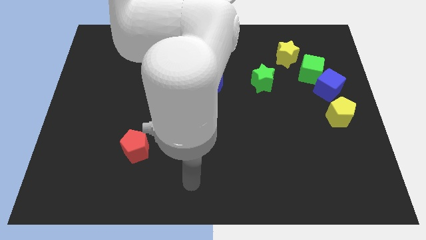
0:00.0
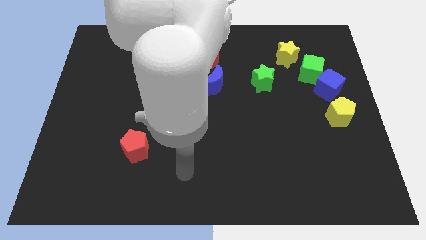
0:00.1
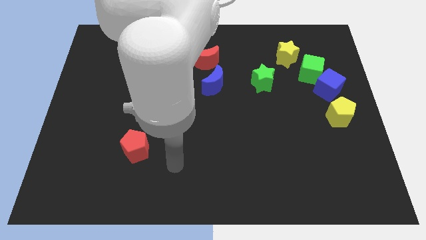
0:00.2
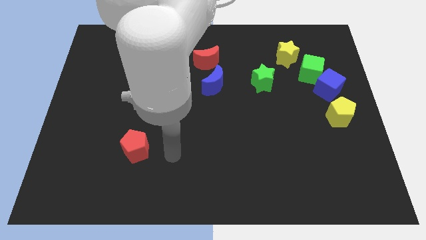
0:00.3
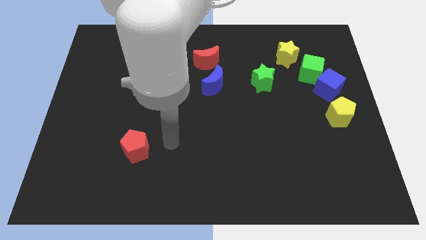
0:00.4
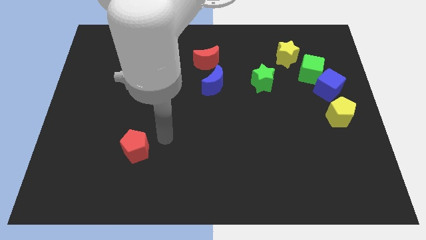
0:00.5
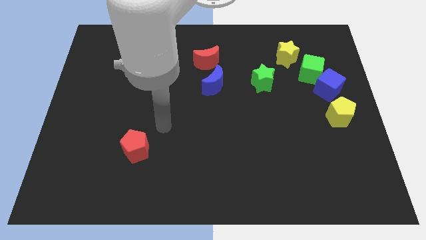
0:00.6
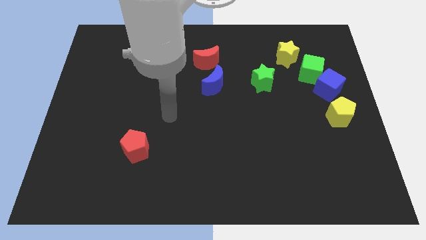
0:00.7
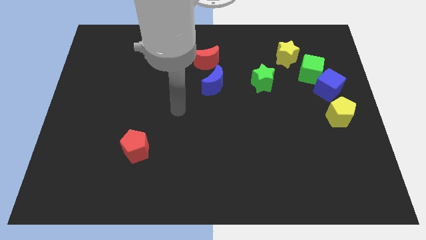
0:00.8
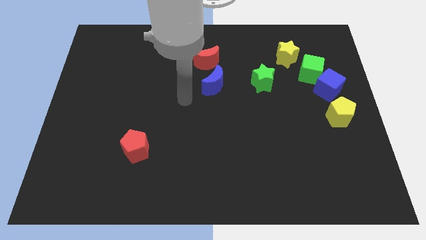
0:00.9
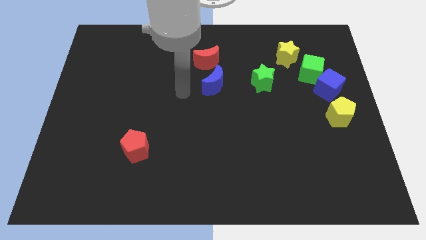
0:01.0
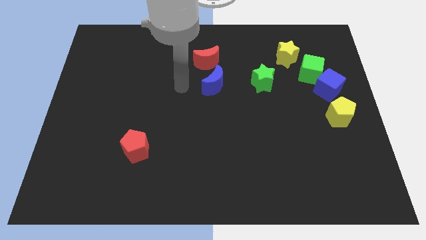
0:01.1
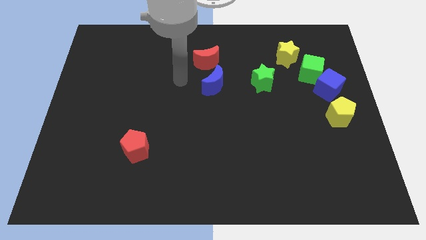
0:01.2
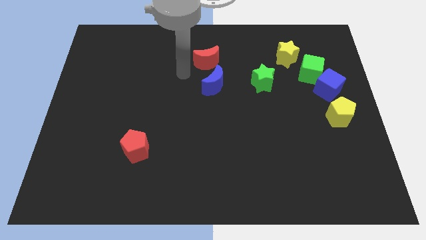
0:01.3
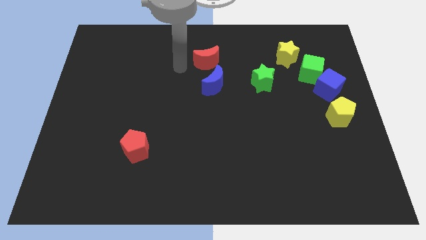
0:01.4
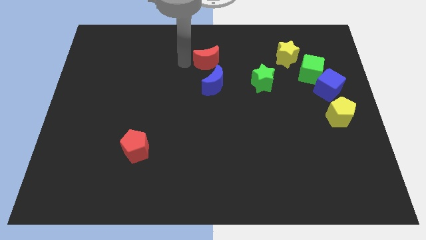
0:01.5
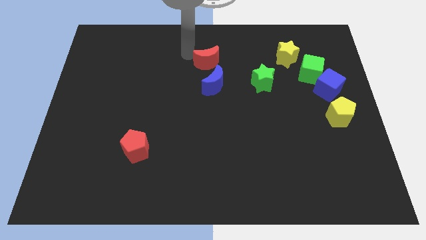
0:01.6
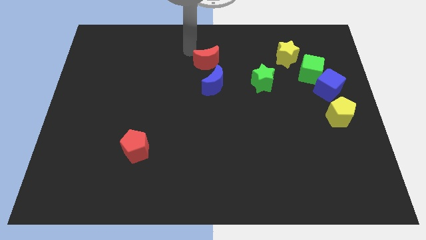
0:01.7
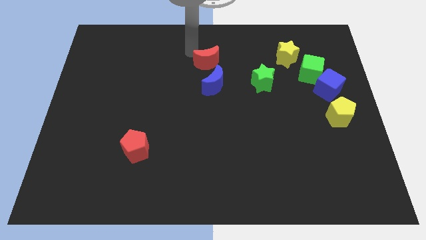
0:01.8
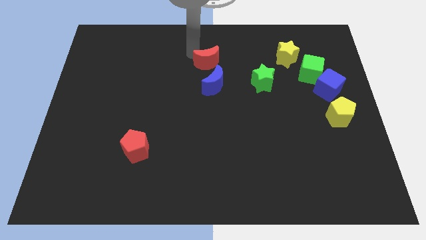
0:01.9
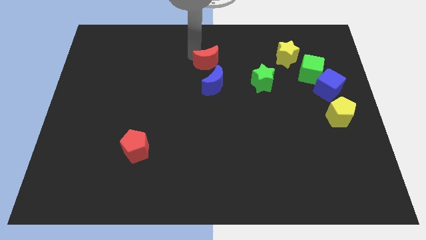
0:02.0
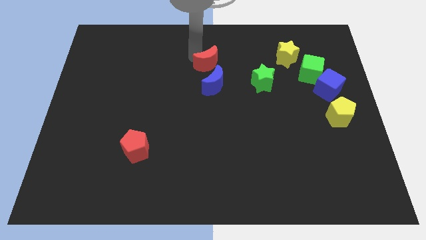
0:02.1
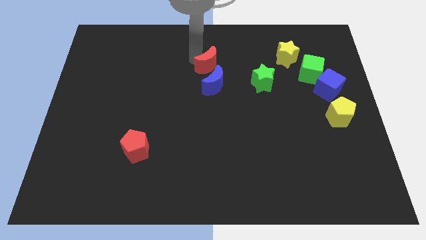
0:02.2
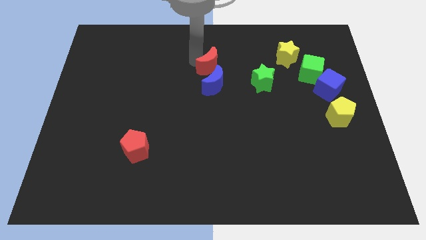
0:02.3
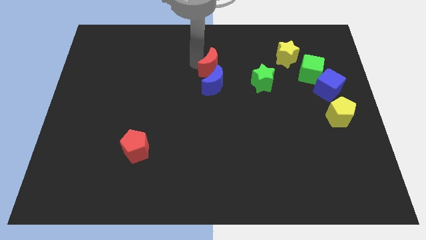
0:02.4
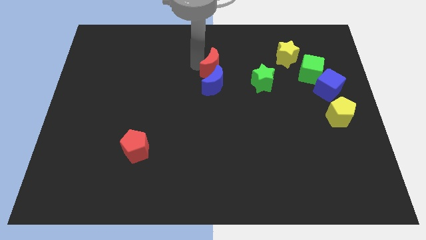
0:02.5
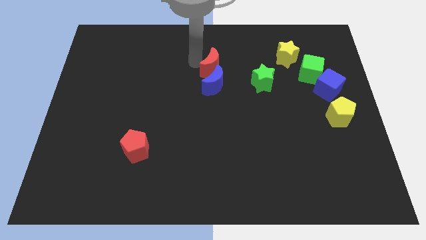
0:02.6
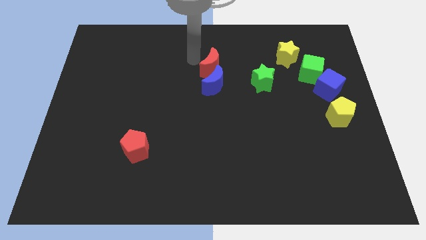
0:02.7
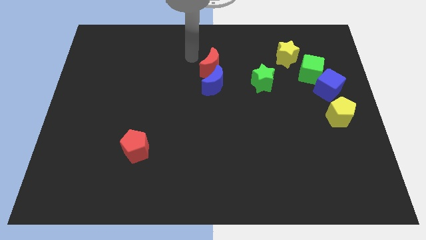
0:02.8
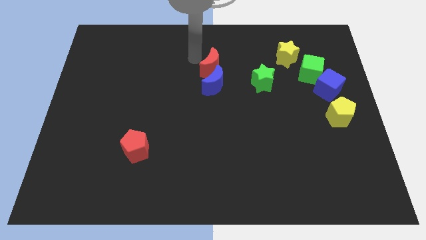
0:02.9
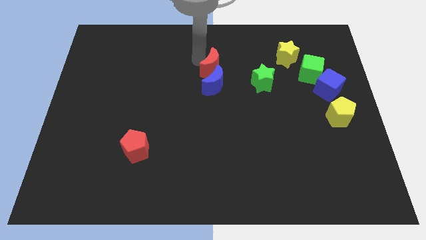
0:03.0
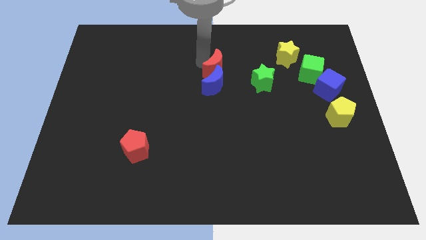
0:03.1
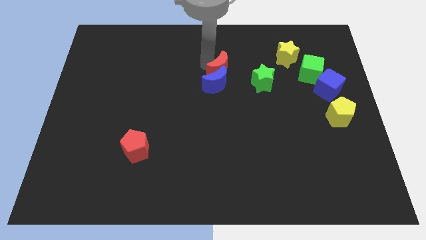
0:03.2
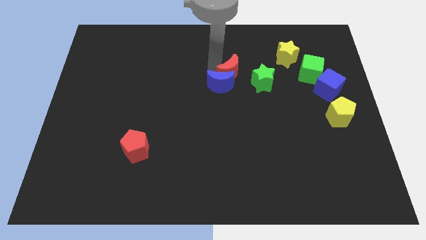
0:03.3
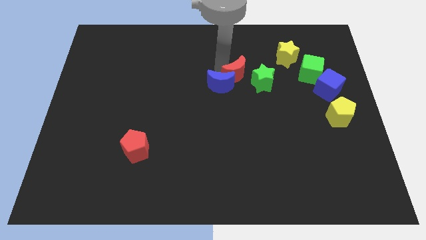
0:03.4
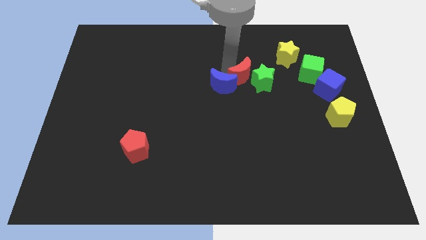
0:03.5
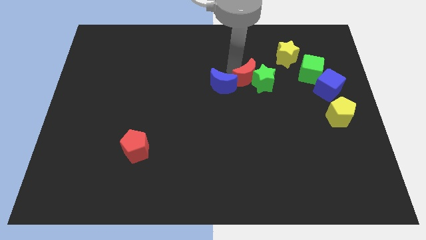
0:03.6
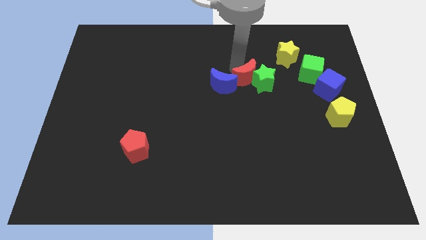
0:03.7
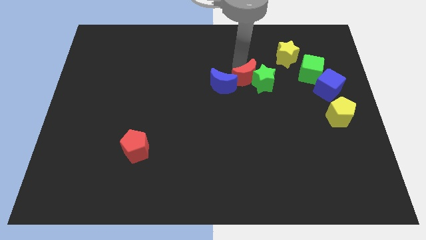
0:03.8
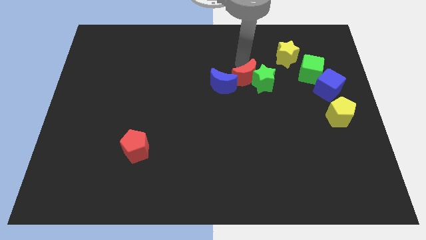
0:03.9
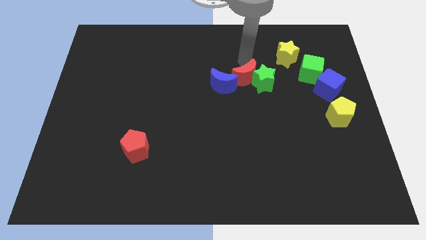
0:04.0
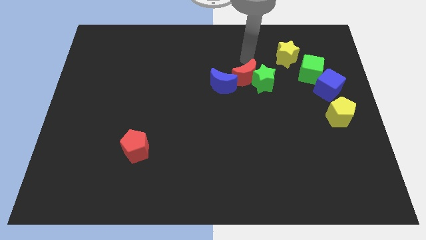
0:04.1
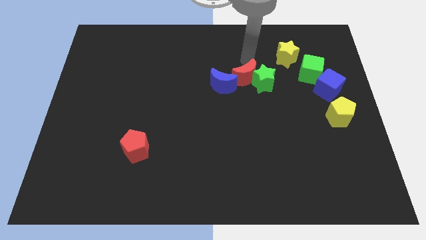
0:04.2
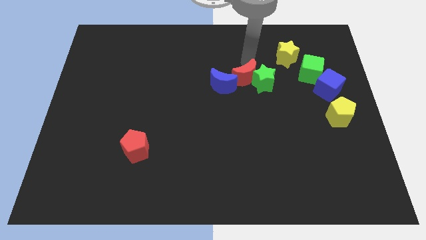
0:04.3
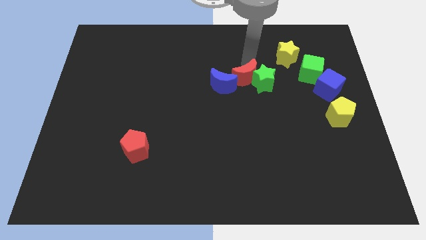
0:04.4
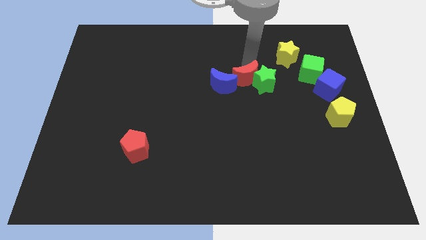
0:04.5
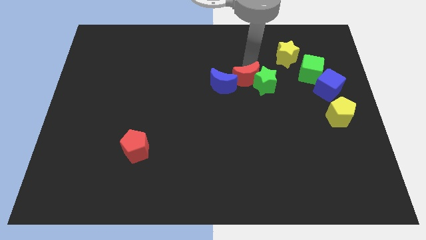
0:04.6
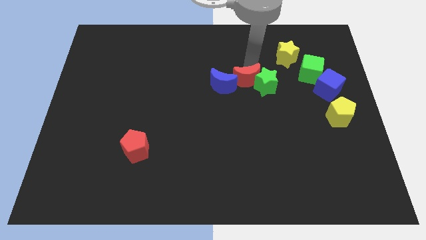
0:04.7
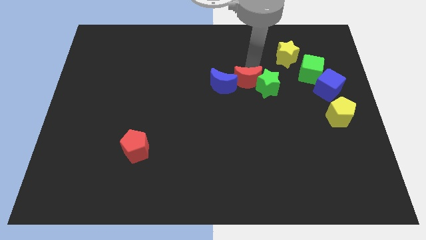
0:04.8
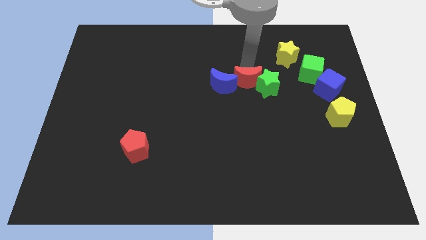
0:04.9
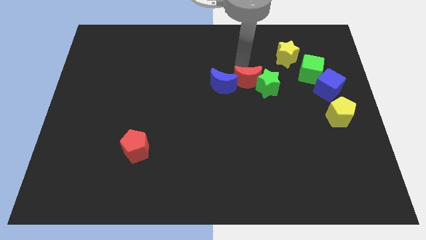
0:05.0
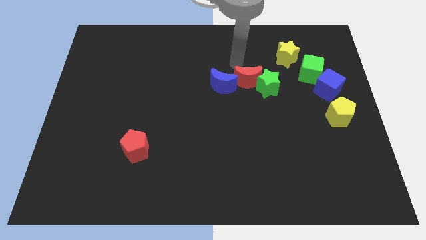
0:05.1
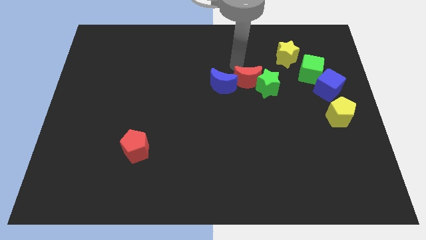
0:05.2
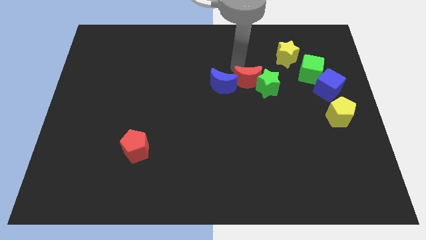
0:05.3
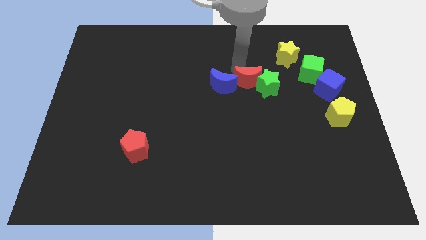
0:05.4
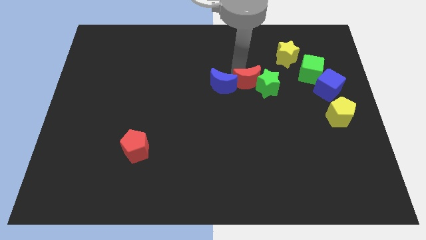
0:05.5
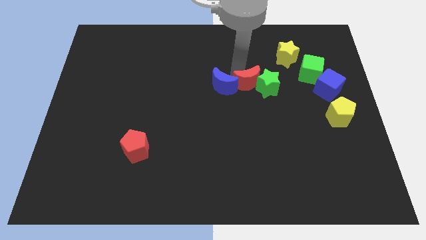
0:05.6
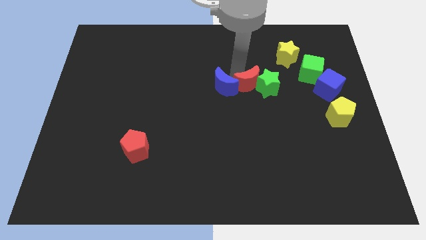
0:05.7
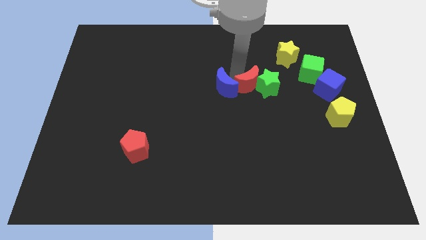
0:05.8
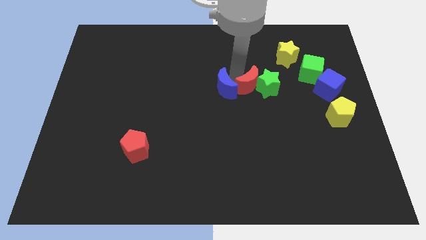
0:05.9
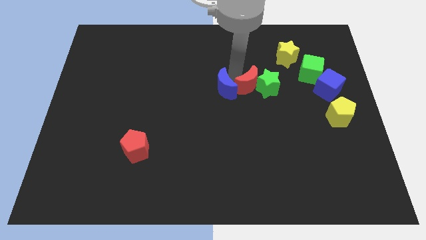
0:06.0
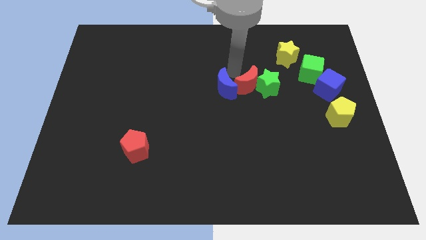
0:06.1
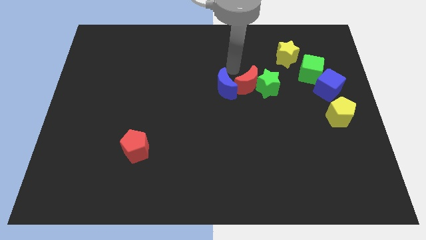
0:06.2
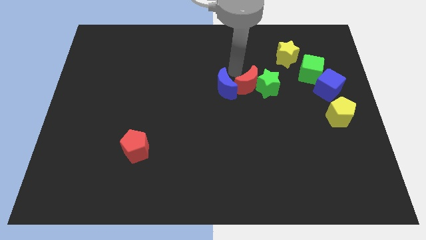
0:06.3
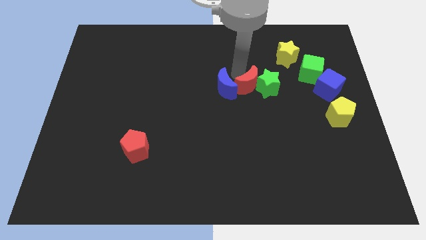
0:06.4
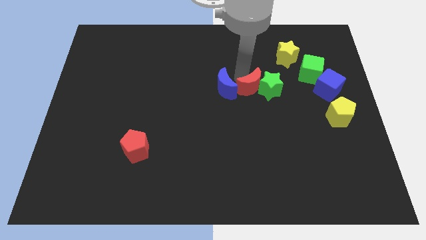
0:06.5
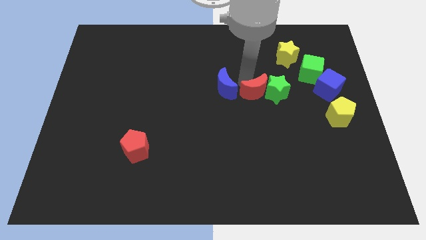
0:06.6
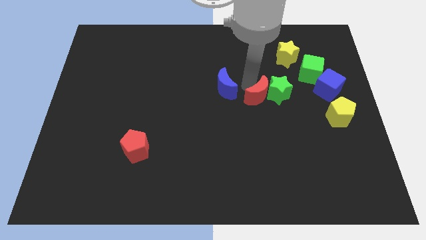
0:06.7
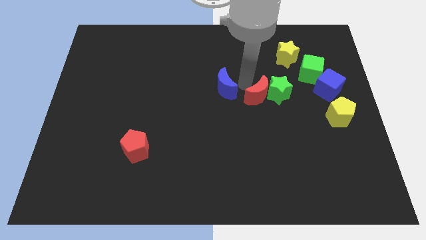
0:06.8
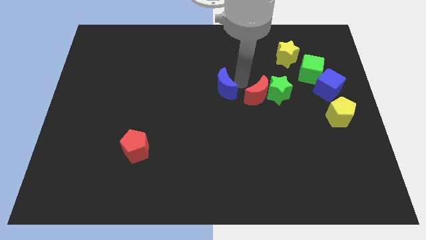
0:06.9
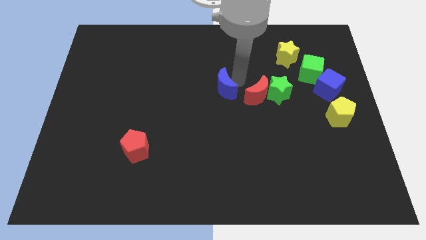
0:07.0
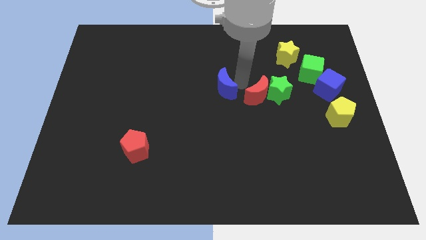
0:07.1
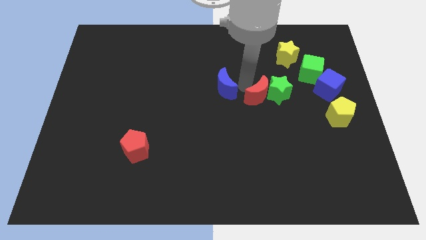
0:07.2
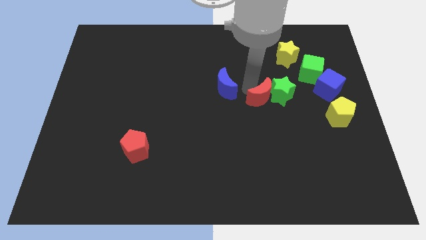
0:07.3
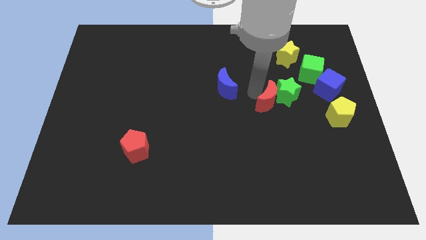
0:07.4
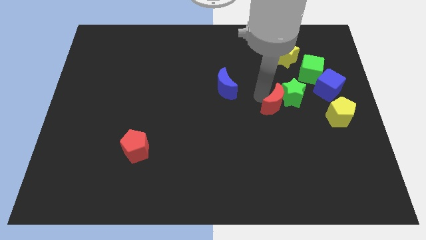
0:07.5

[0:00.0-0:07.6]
slide the red moon down and right diagonally

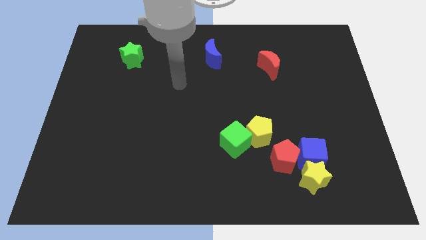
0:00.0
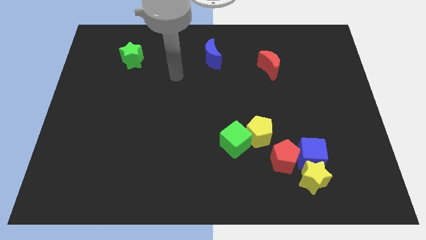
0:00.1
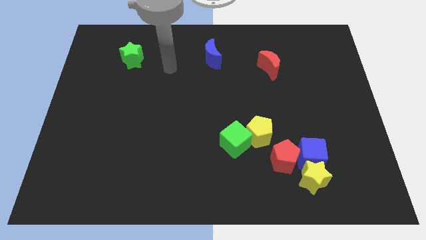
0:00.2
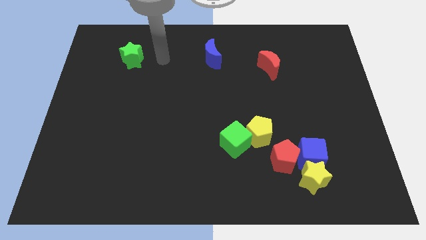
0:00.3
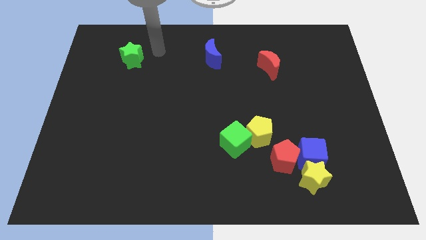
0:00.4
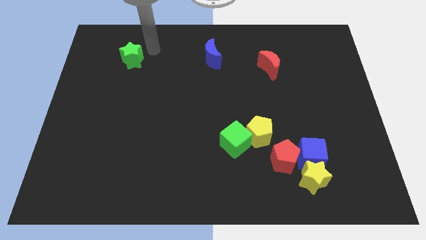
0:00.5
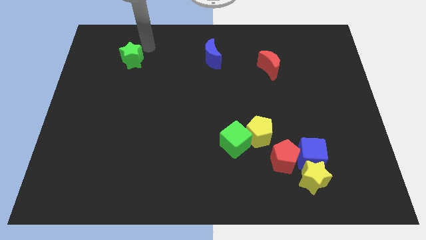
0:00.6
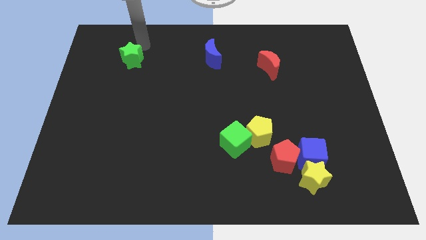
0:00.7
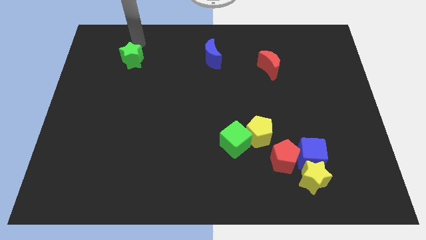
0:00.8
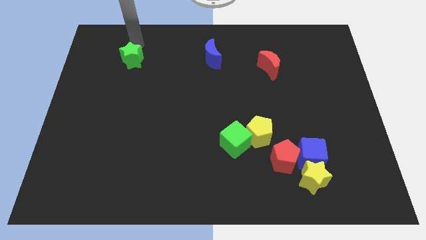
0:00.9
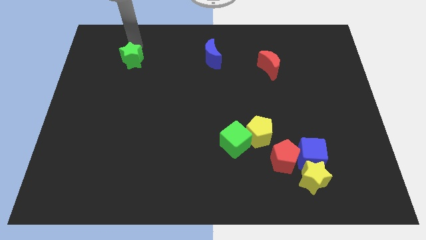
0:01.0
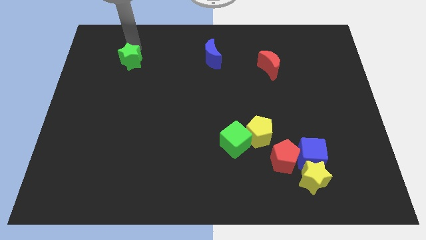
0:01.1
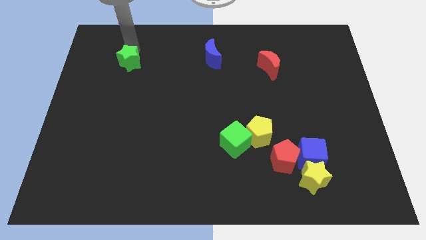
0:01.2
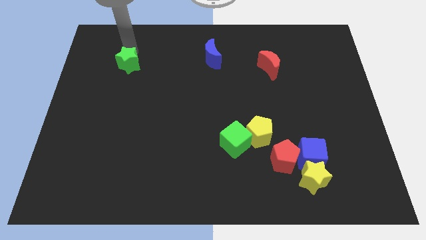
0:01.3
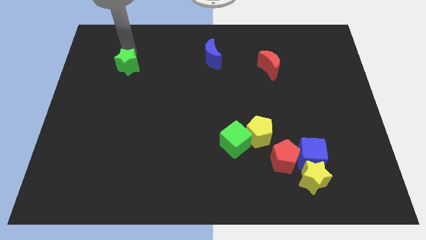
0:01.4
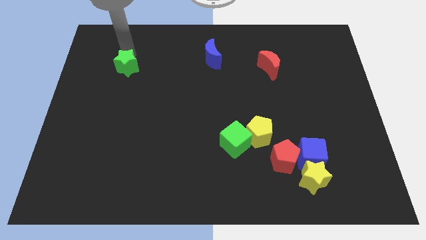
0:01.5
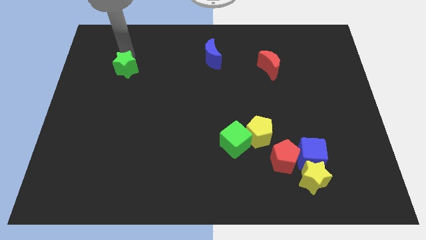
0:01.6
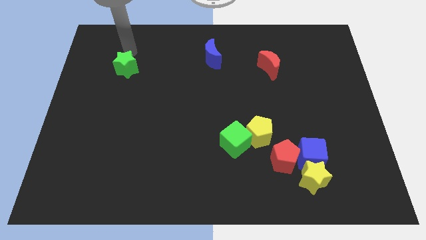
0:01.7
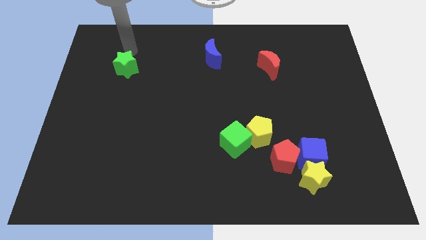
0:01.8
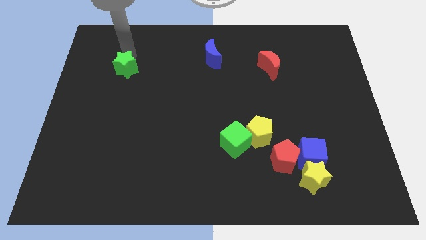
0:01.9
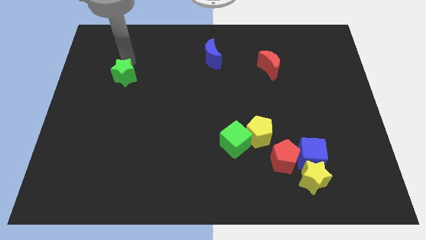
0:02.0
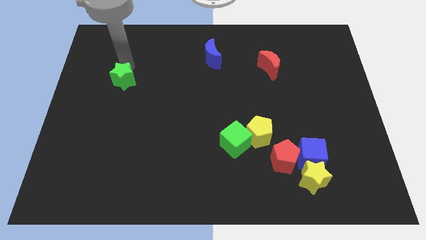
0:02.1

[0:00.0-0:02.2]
move the green star slightly down
